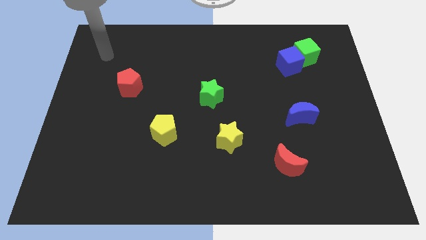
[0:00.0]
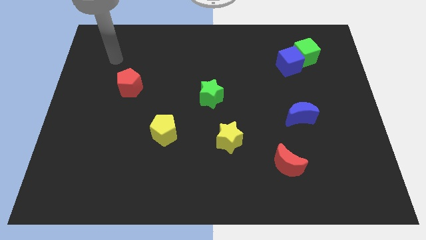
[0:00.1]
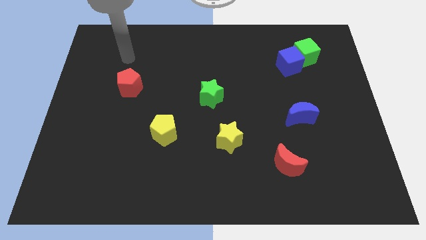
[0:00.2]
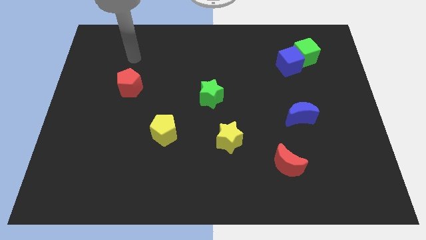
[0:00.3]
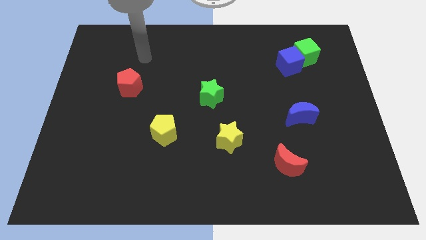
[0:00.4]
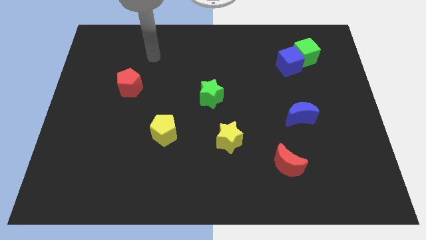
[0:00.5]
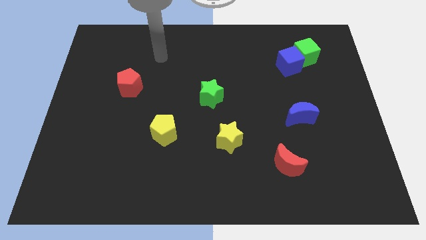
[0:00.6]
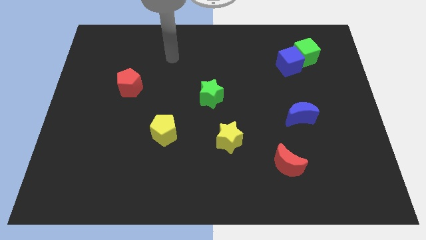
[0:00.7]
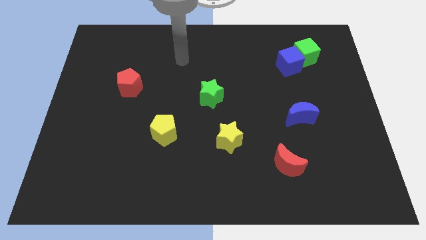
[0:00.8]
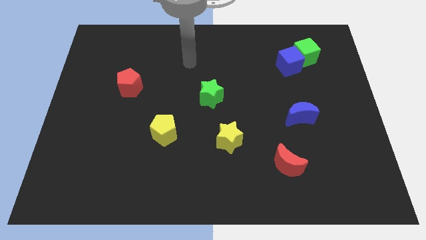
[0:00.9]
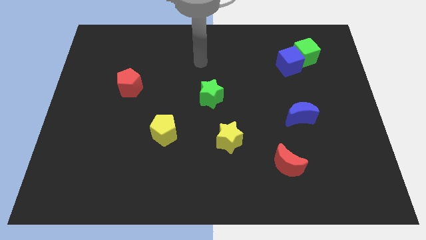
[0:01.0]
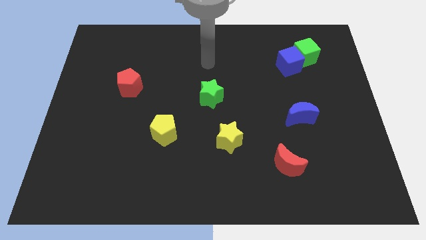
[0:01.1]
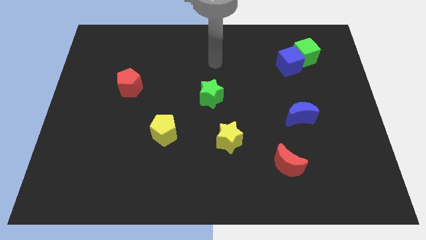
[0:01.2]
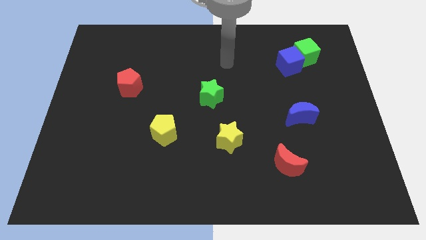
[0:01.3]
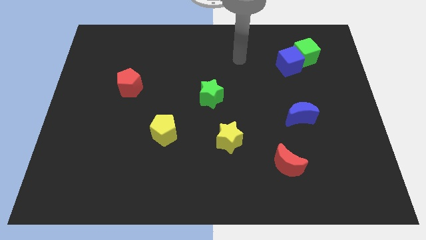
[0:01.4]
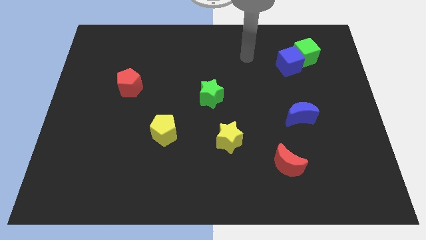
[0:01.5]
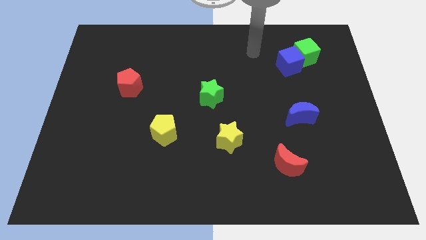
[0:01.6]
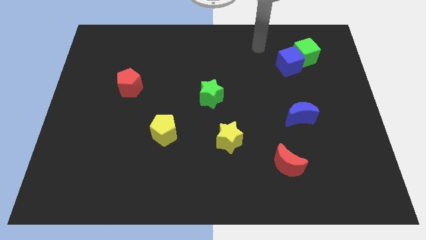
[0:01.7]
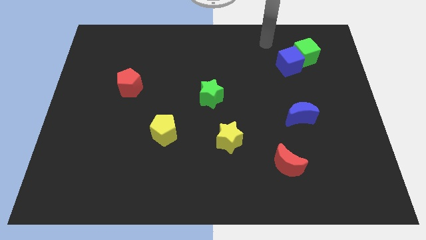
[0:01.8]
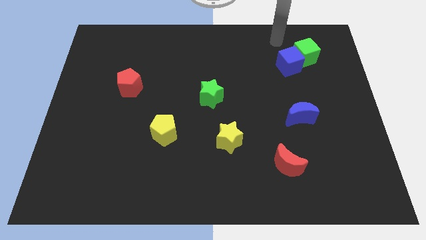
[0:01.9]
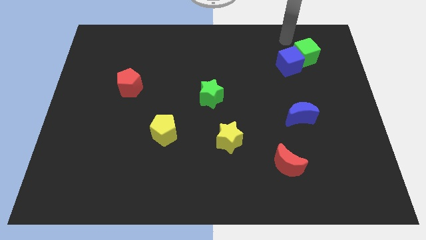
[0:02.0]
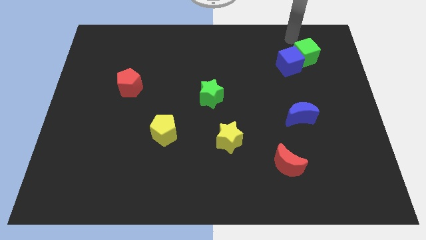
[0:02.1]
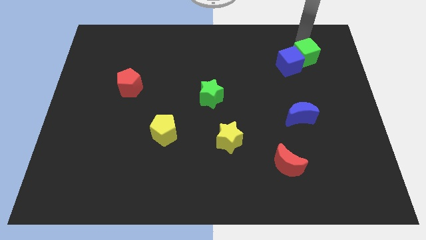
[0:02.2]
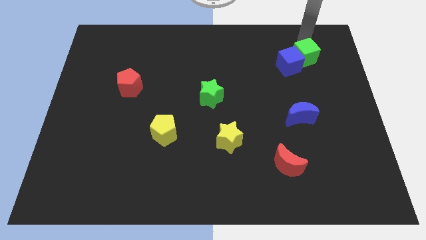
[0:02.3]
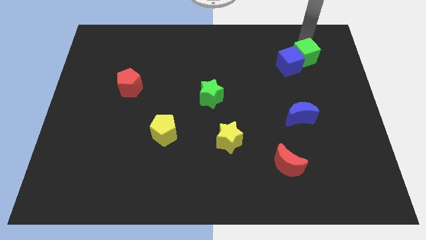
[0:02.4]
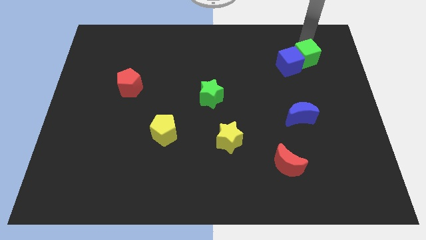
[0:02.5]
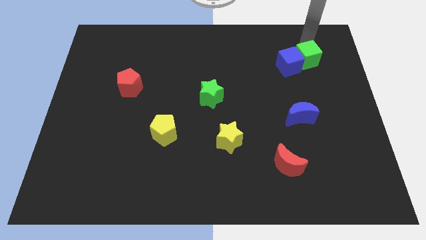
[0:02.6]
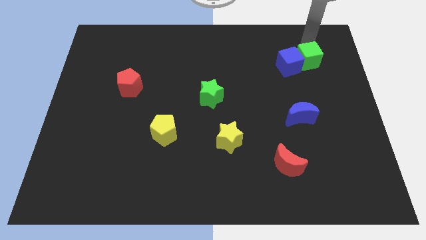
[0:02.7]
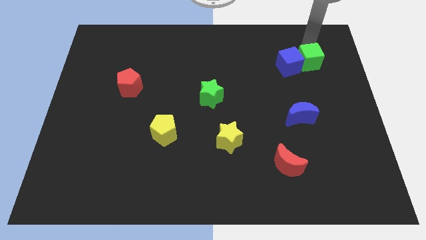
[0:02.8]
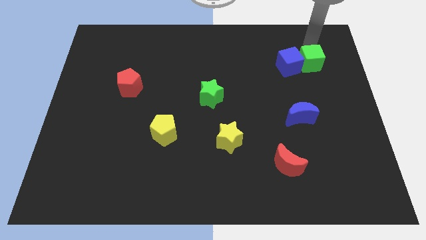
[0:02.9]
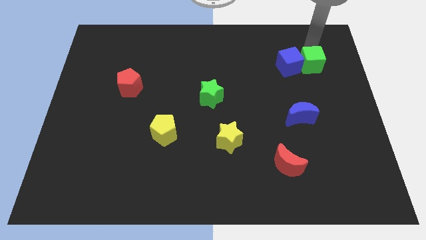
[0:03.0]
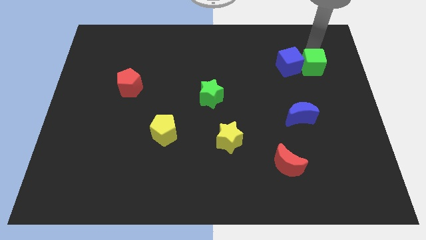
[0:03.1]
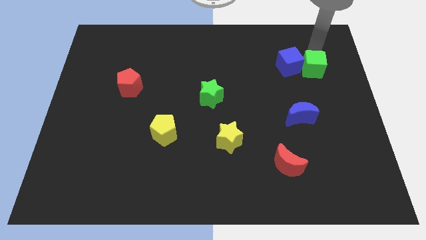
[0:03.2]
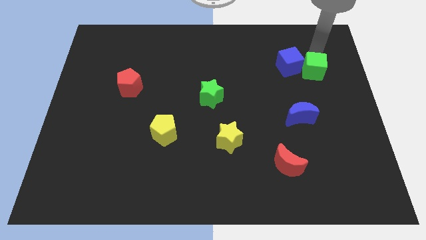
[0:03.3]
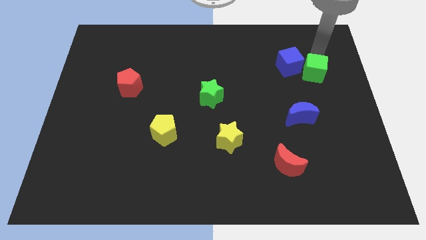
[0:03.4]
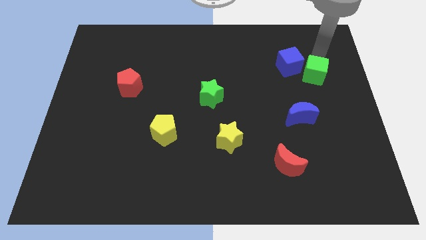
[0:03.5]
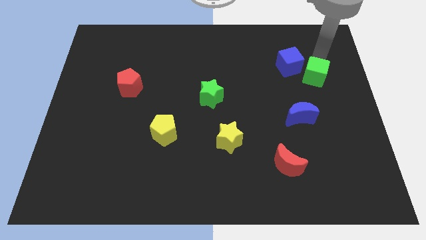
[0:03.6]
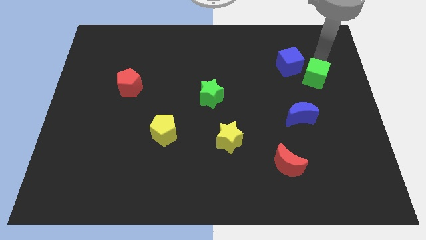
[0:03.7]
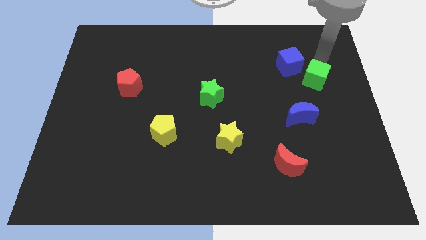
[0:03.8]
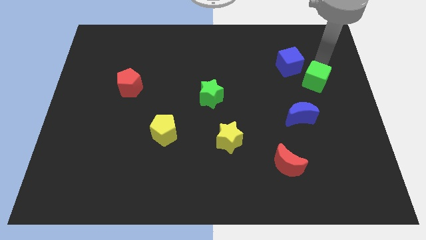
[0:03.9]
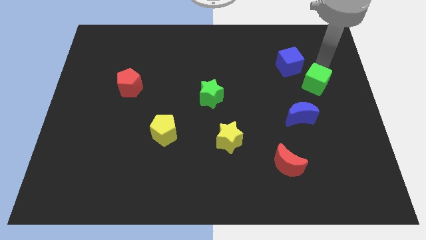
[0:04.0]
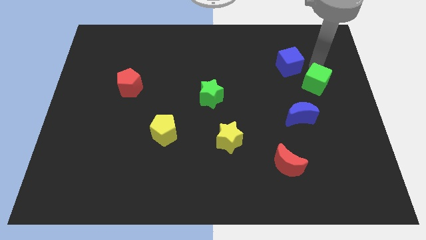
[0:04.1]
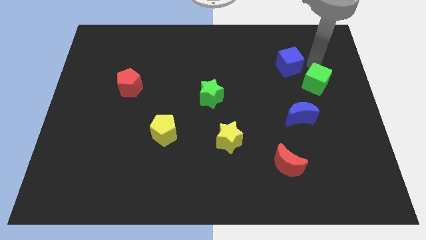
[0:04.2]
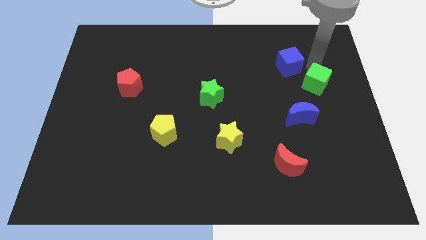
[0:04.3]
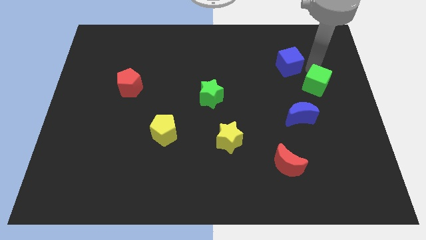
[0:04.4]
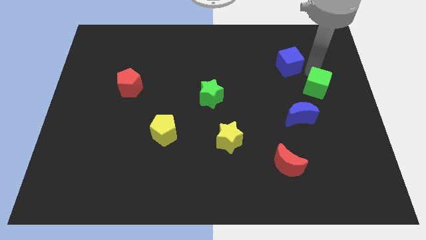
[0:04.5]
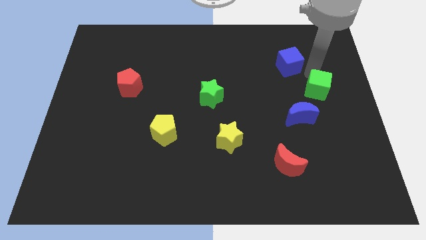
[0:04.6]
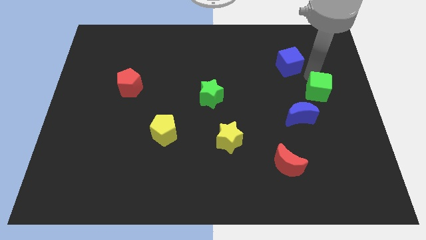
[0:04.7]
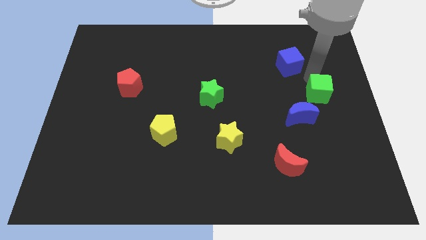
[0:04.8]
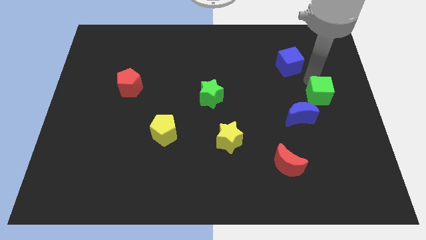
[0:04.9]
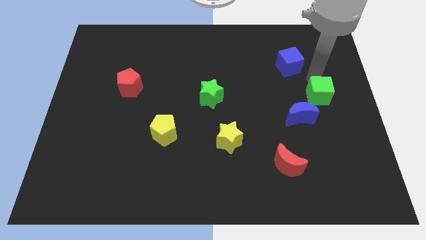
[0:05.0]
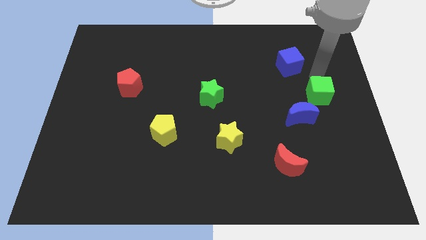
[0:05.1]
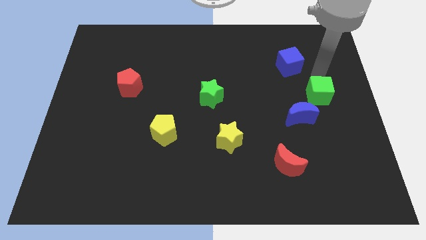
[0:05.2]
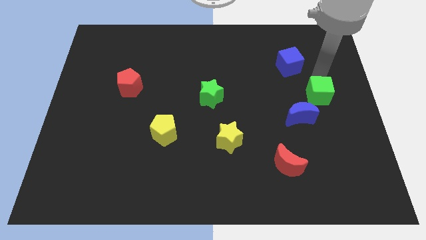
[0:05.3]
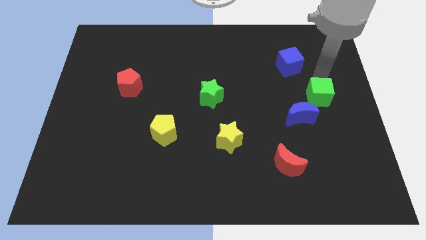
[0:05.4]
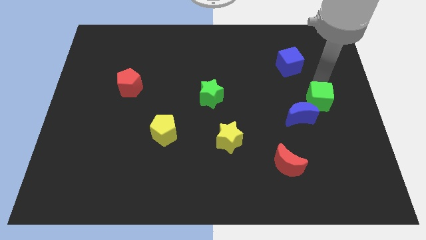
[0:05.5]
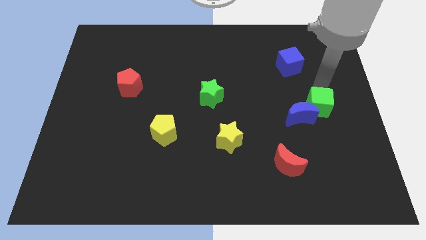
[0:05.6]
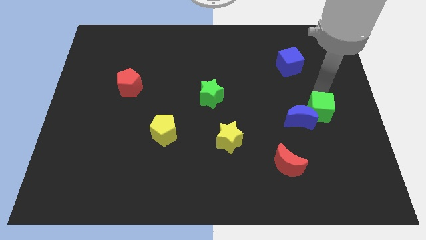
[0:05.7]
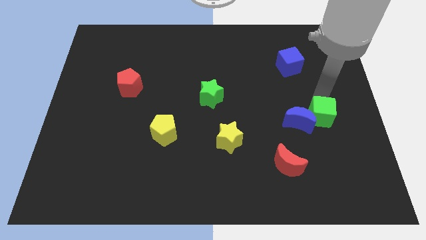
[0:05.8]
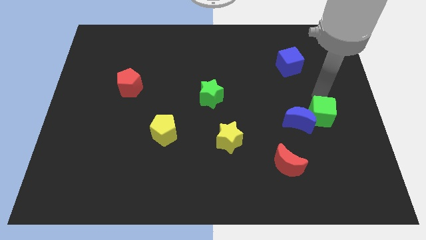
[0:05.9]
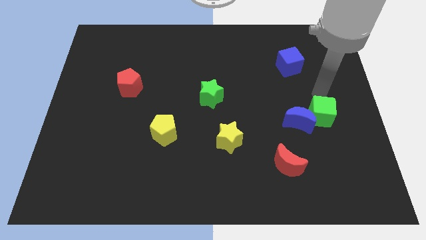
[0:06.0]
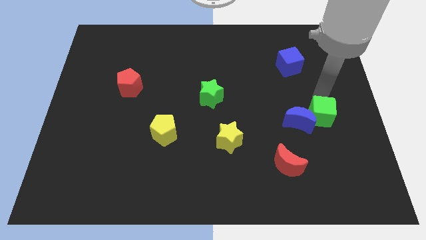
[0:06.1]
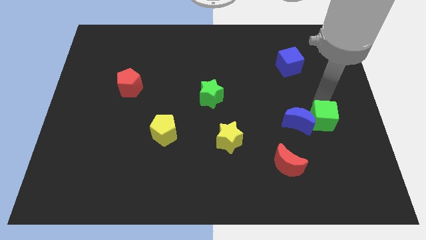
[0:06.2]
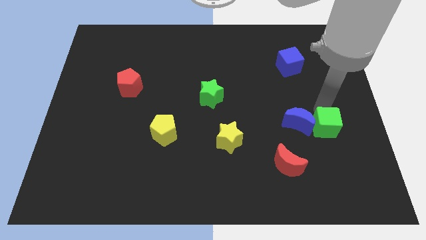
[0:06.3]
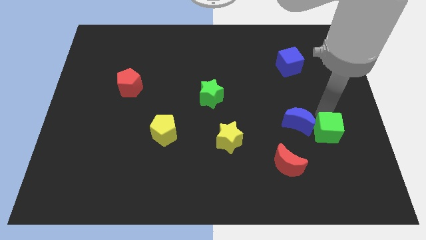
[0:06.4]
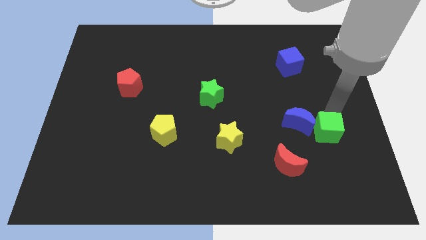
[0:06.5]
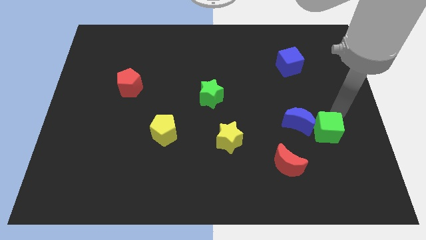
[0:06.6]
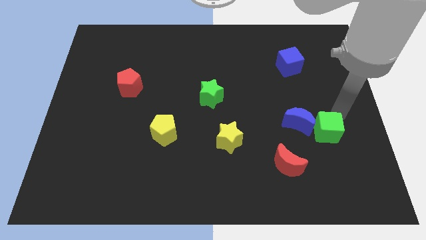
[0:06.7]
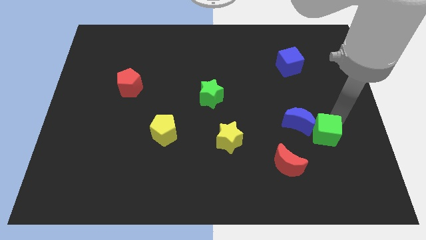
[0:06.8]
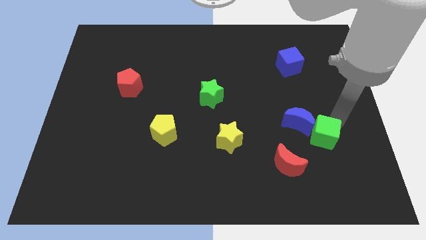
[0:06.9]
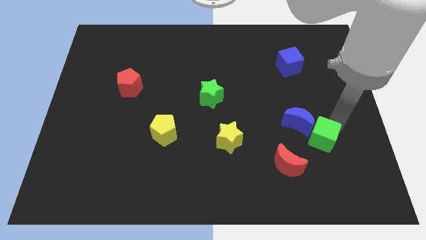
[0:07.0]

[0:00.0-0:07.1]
move the green cube below the blue moon

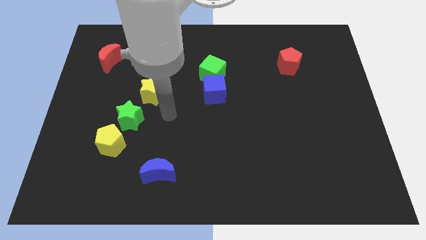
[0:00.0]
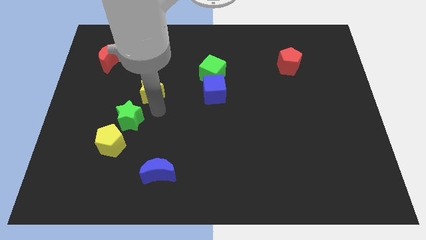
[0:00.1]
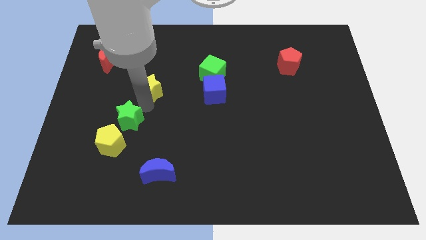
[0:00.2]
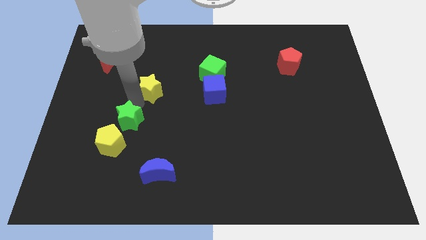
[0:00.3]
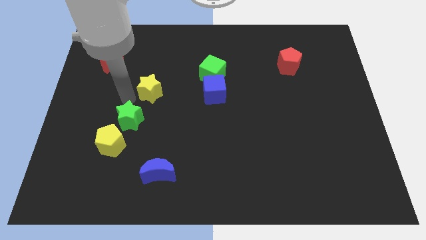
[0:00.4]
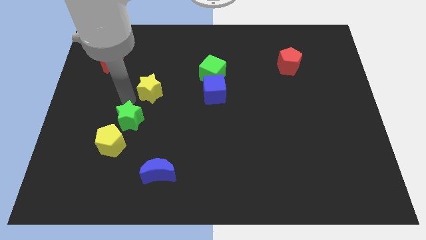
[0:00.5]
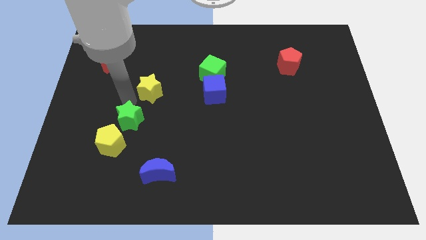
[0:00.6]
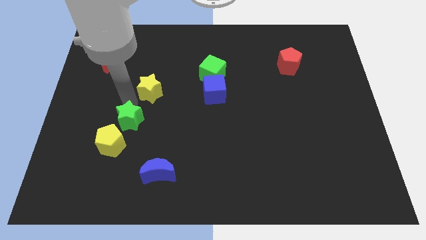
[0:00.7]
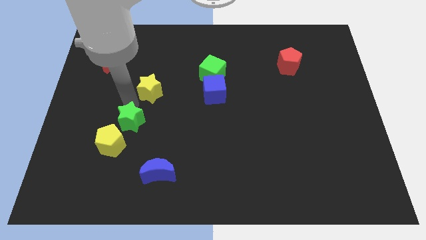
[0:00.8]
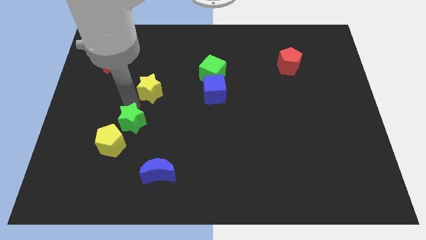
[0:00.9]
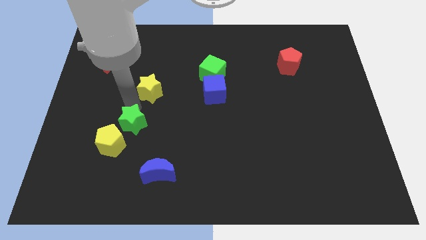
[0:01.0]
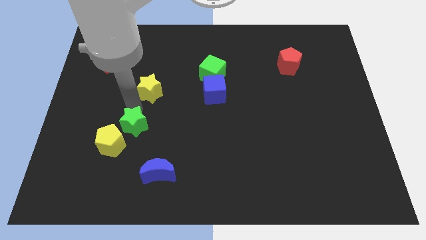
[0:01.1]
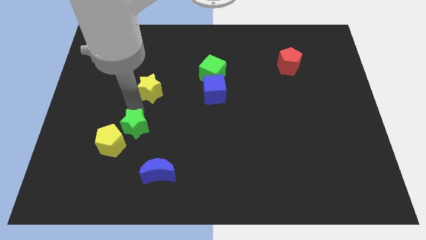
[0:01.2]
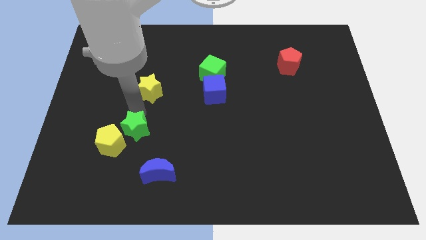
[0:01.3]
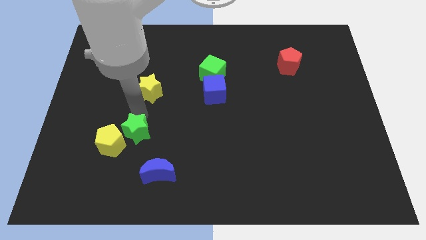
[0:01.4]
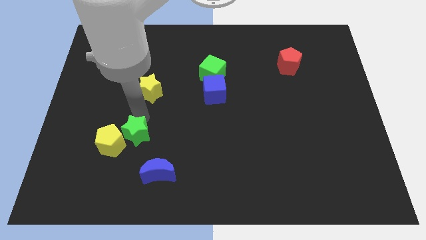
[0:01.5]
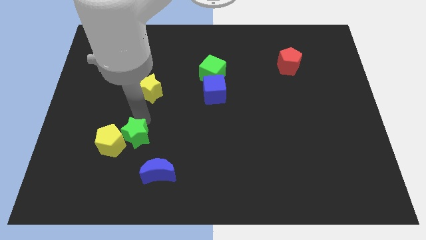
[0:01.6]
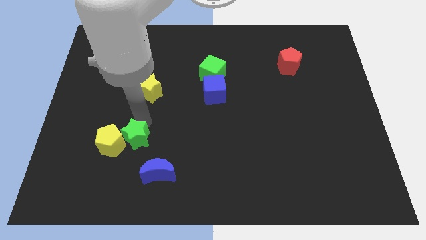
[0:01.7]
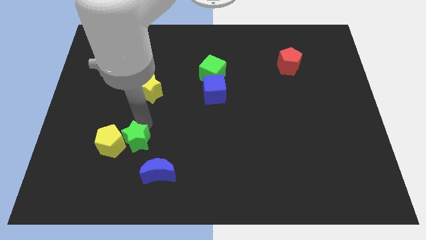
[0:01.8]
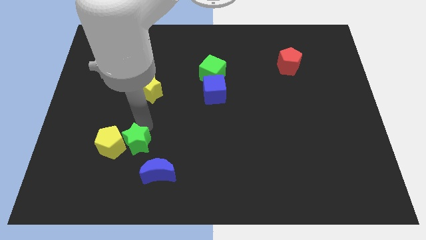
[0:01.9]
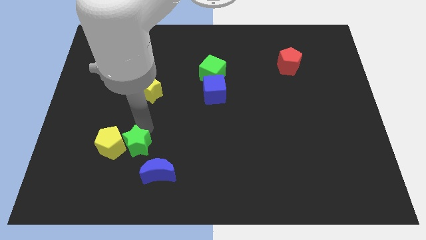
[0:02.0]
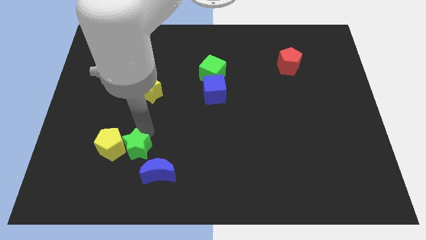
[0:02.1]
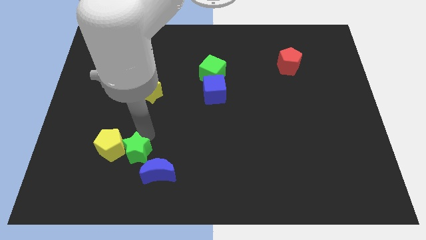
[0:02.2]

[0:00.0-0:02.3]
slide the green star left of the blue moon
